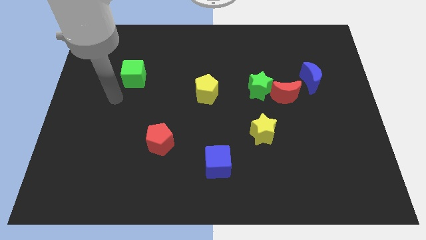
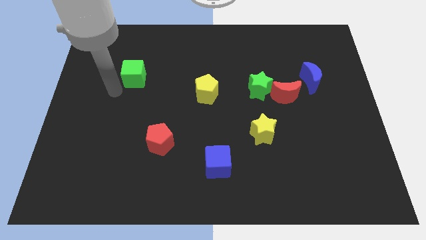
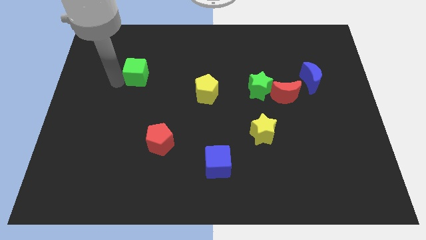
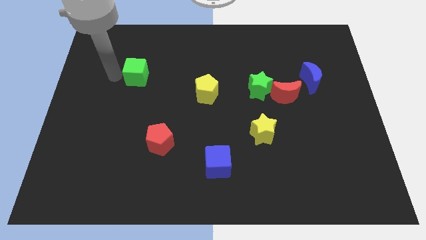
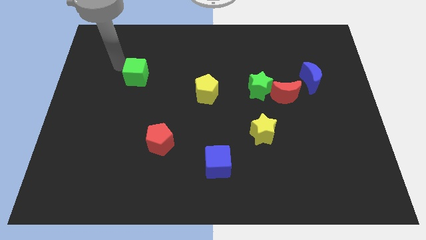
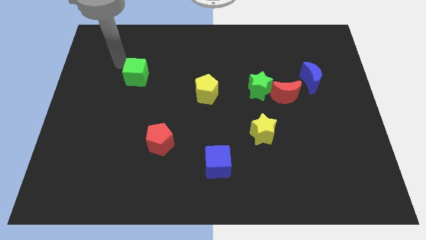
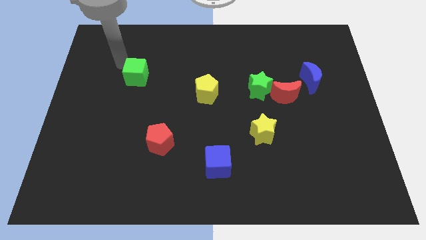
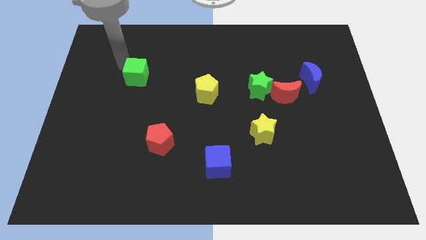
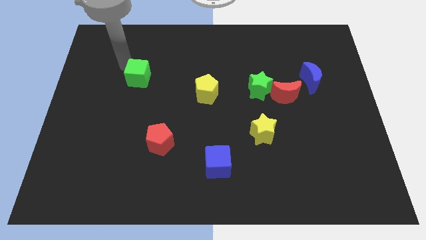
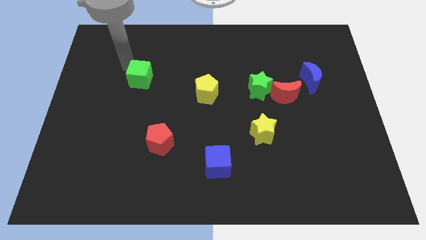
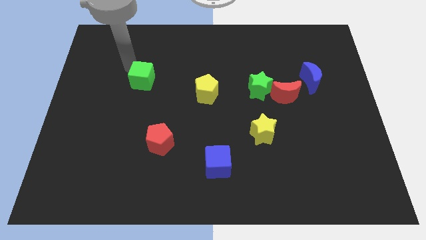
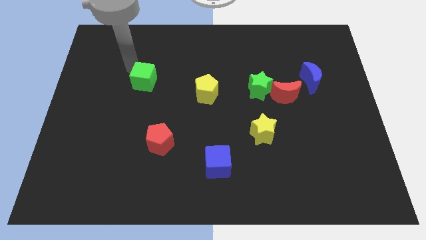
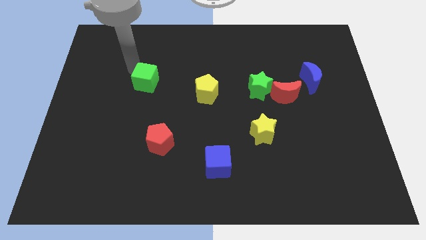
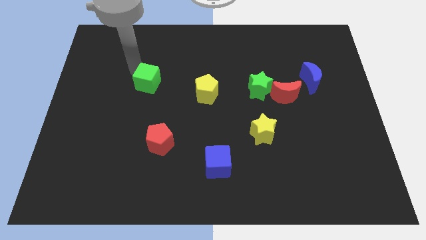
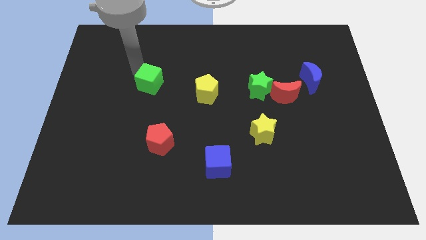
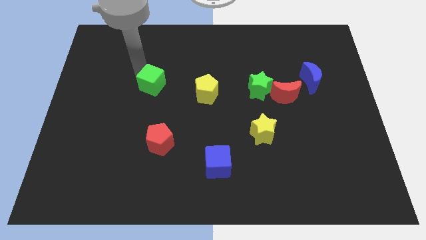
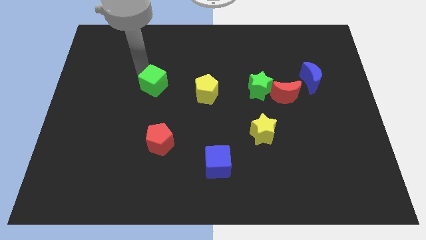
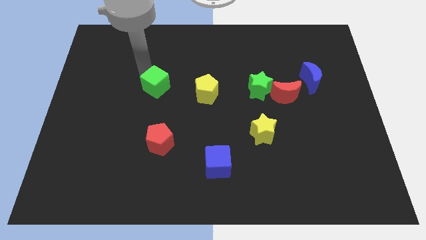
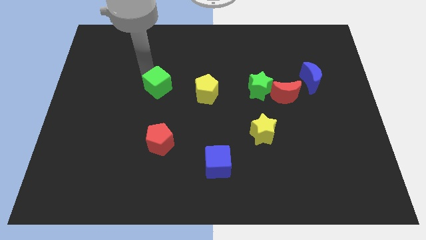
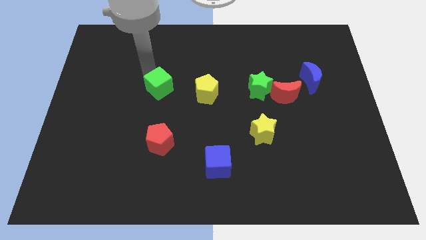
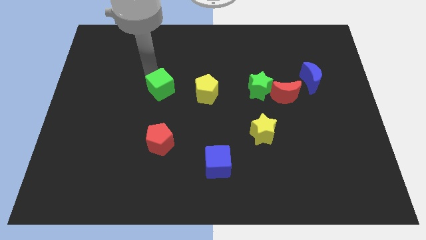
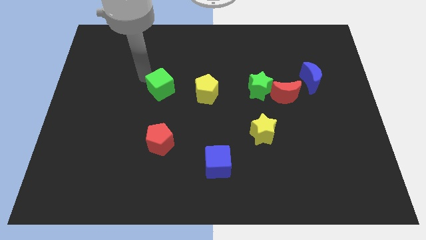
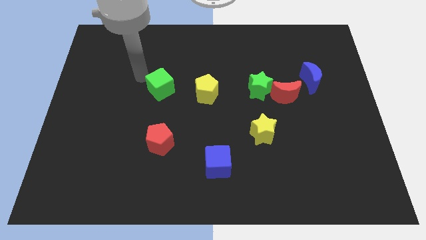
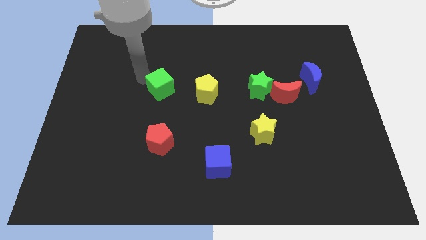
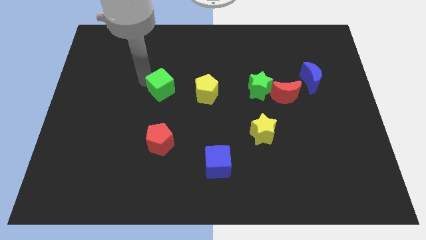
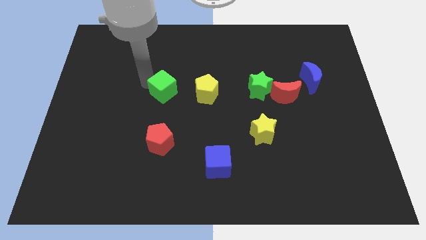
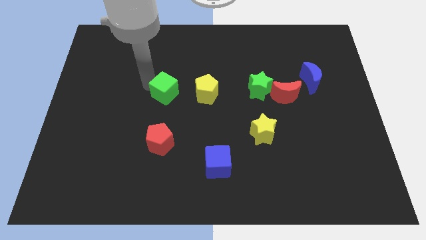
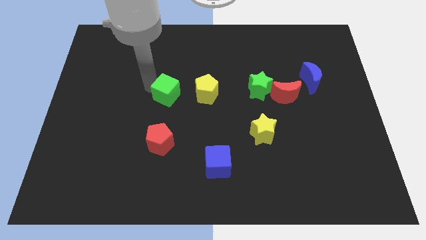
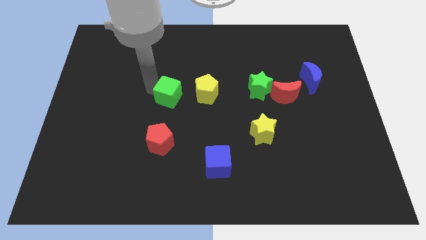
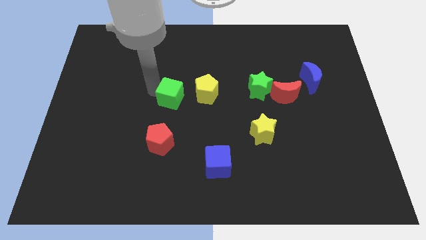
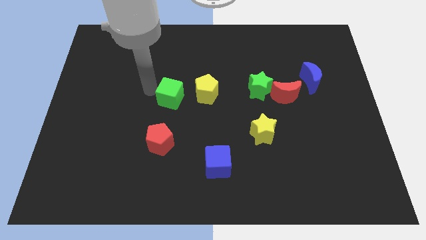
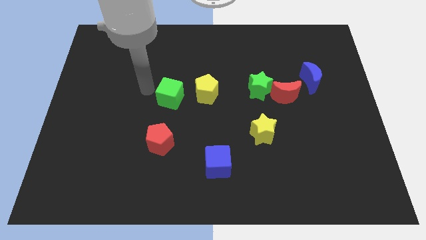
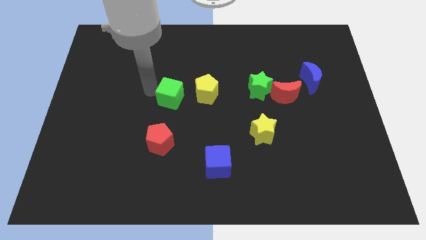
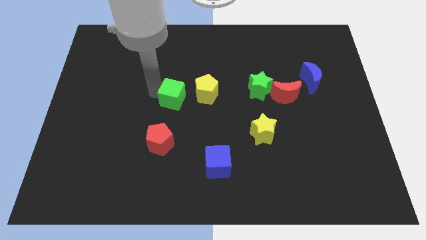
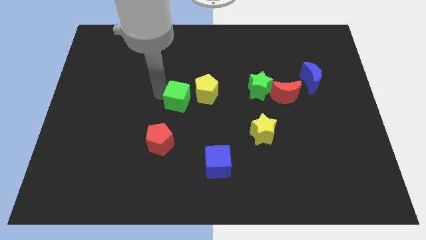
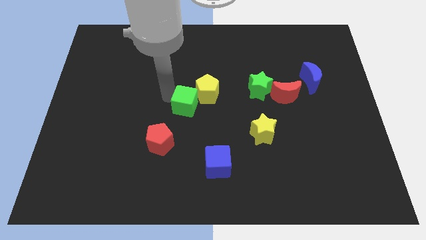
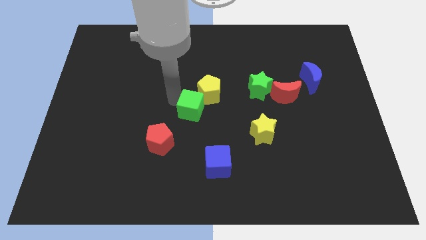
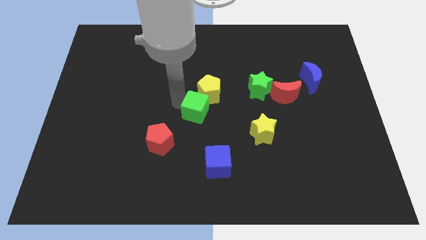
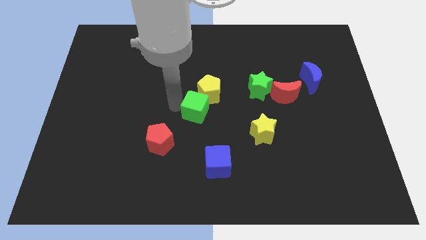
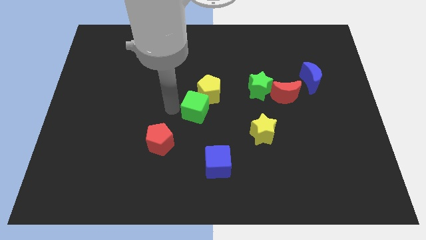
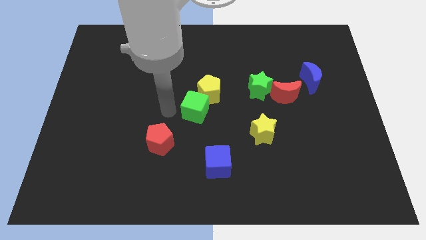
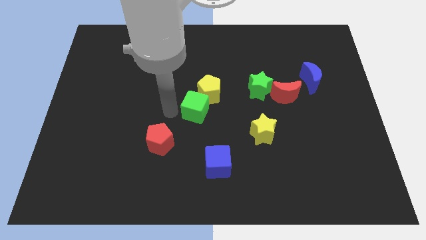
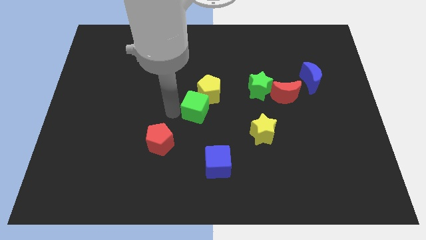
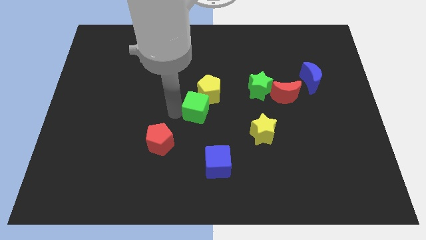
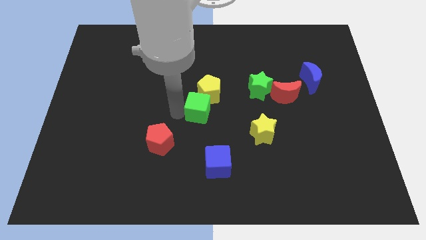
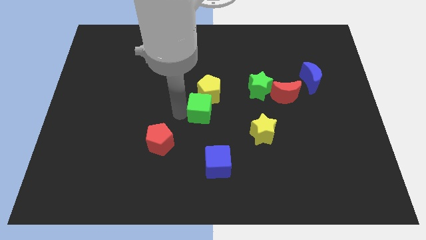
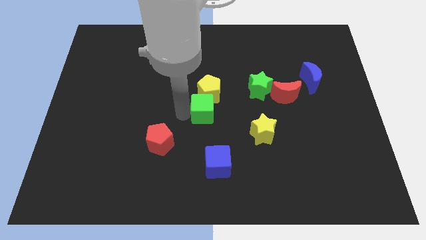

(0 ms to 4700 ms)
move the green cube to the bottom right side of the yellow pentagon

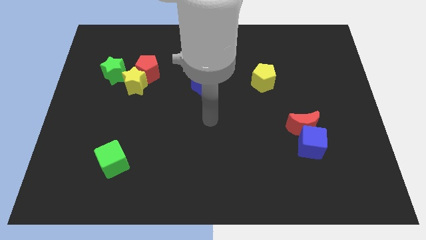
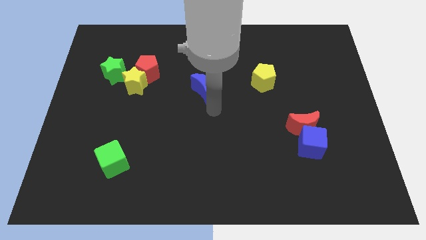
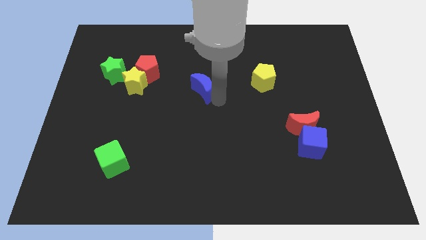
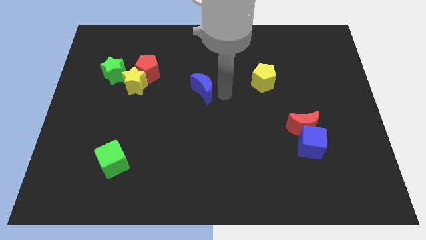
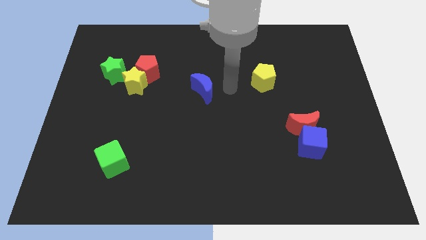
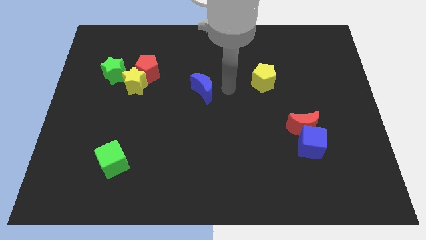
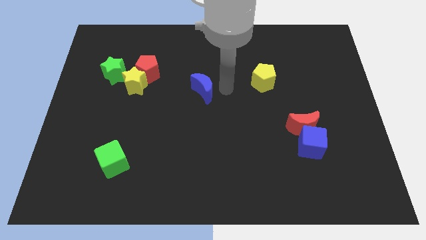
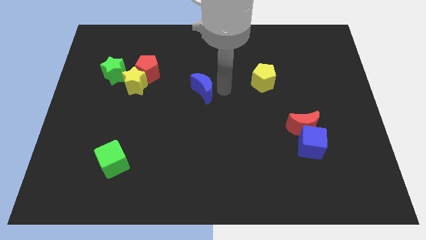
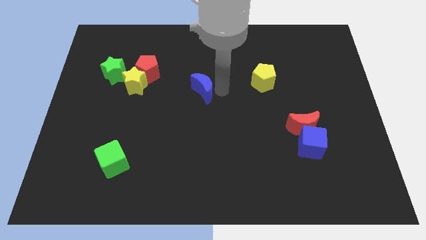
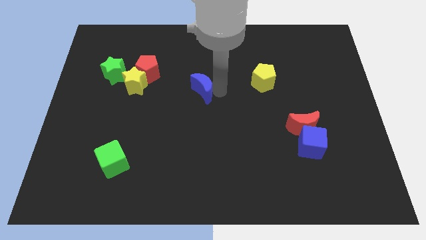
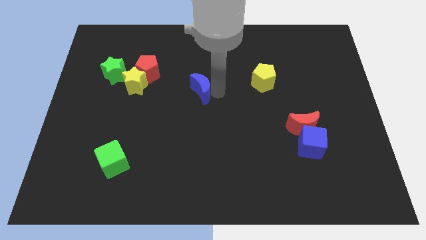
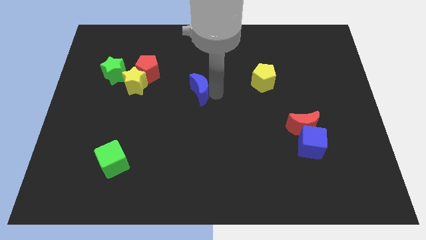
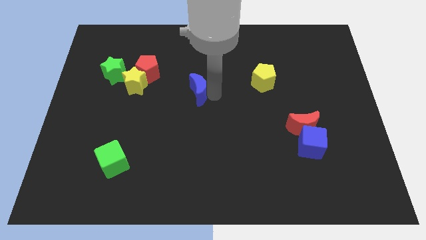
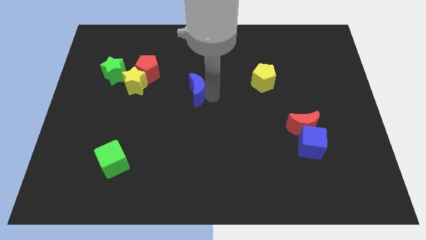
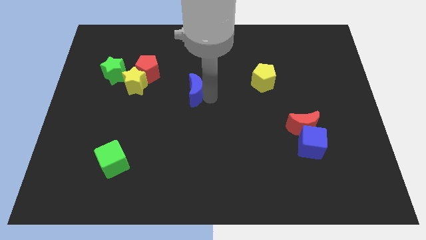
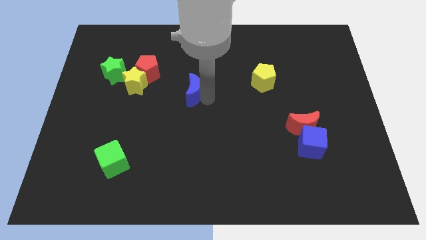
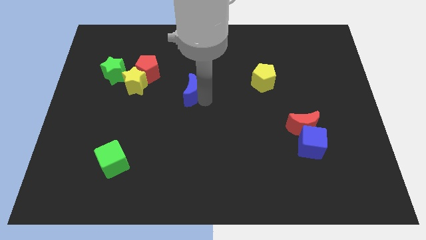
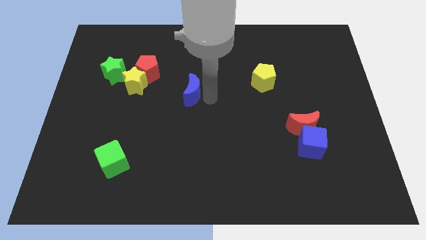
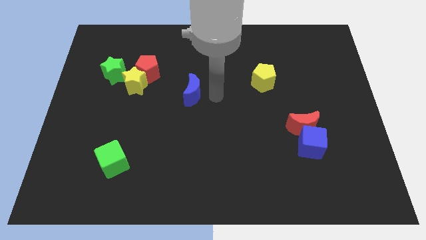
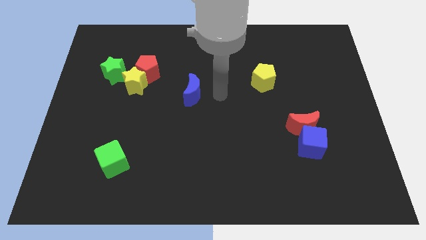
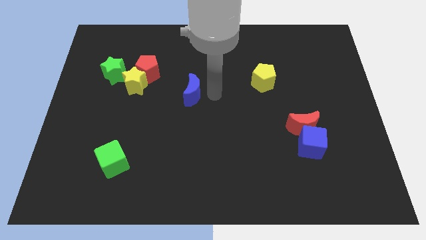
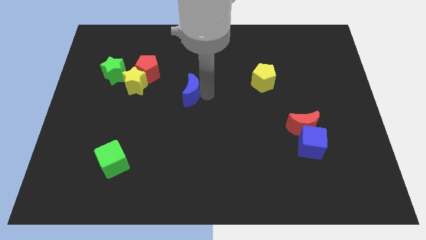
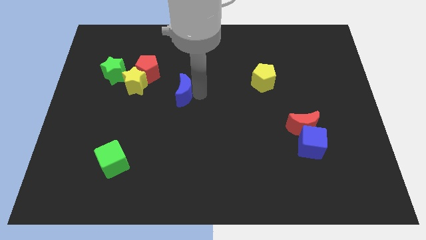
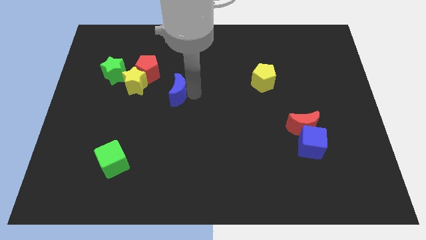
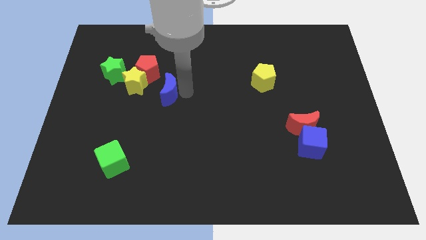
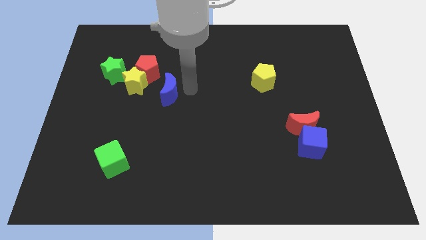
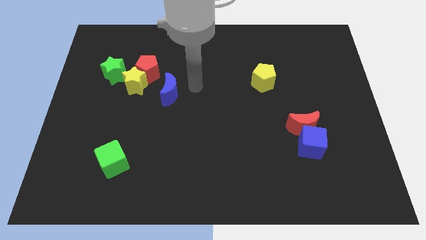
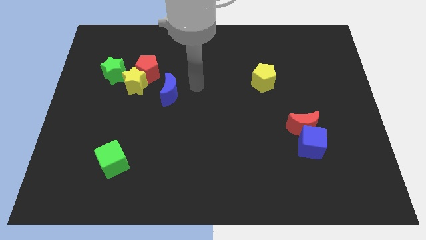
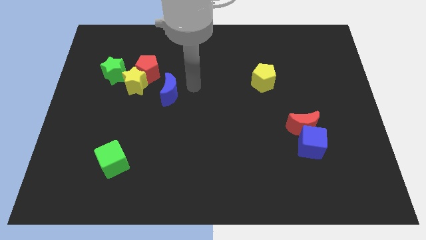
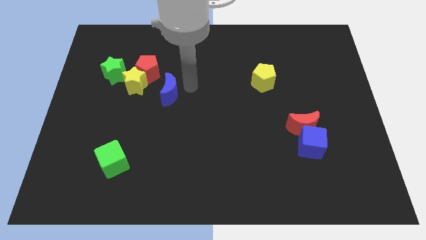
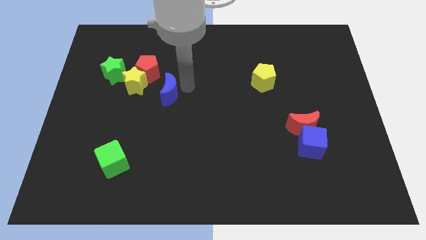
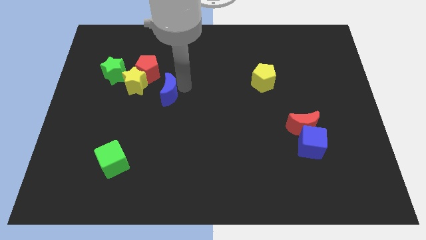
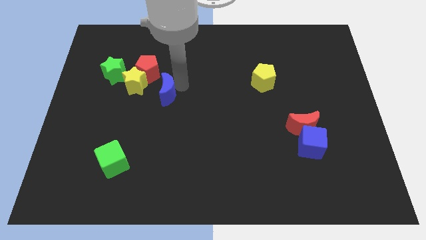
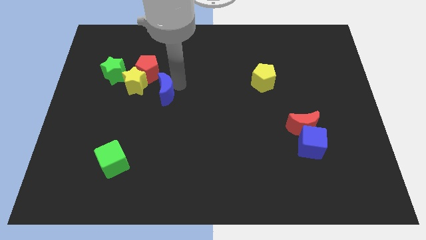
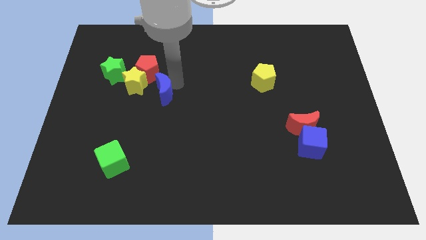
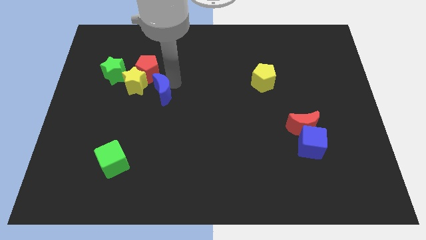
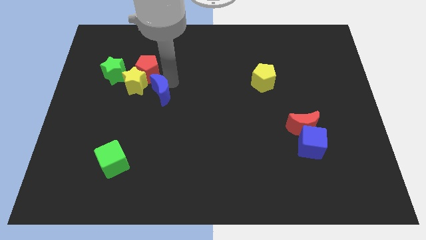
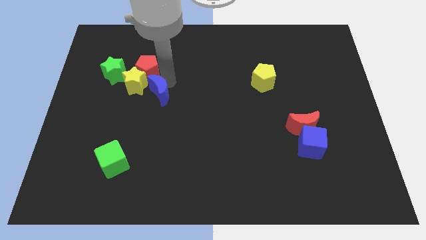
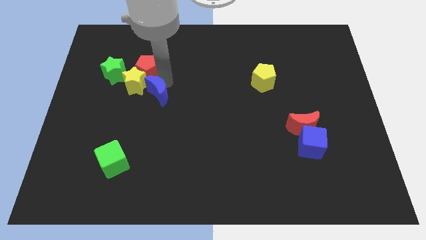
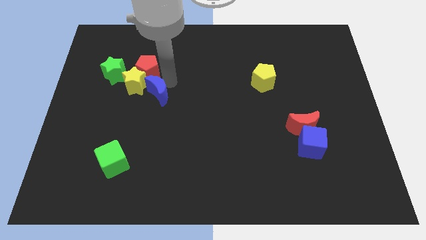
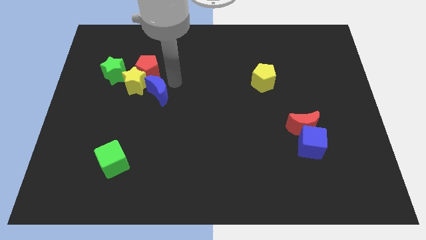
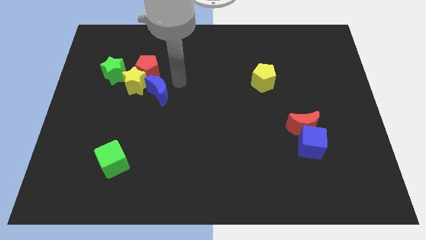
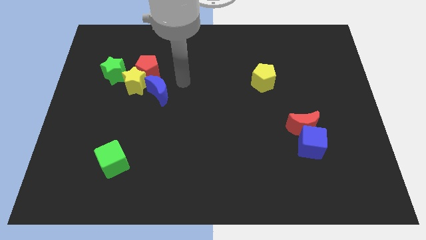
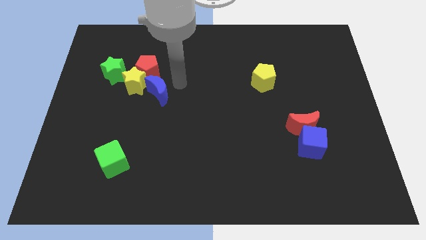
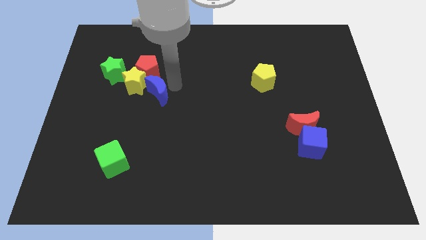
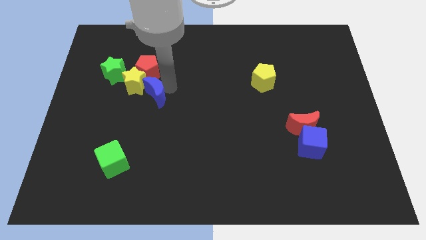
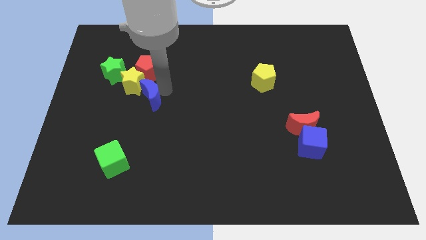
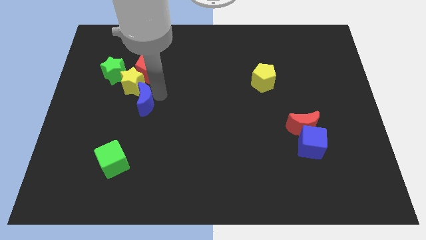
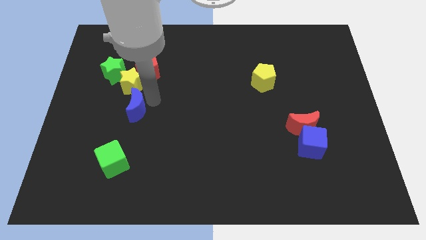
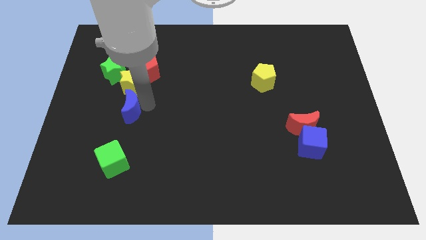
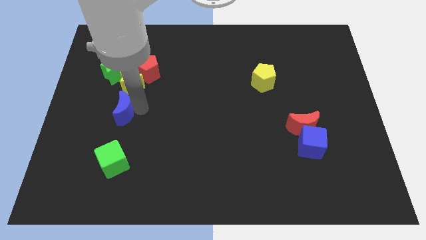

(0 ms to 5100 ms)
move the blue moon to the bottom of the green star
